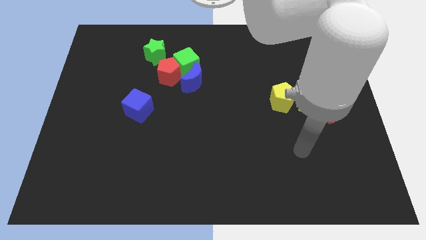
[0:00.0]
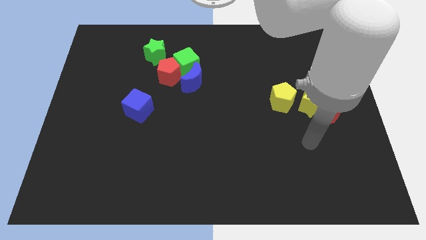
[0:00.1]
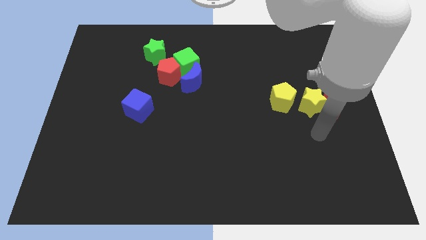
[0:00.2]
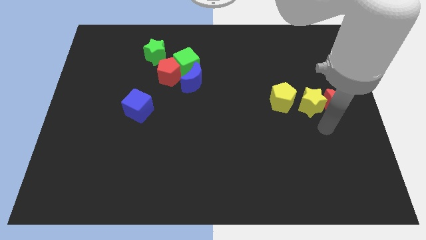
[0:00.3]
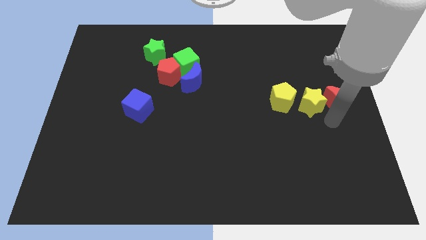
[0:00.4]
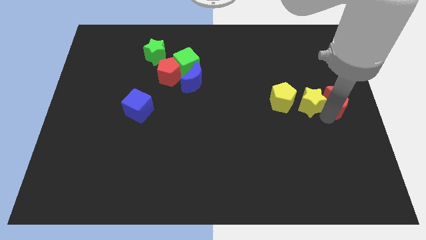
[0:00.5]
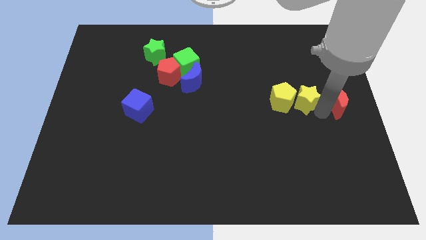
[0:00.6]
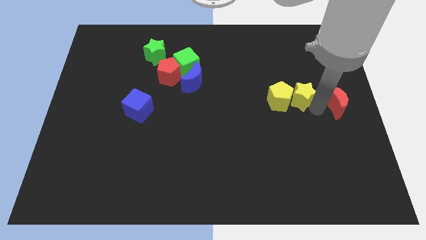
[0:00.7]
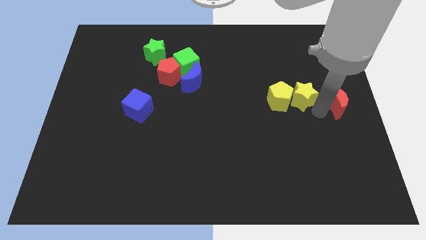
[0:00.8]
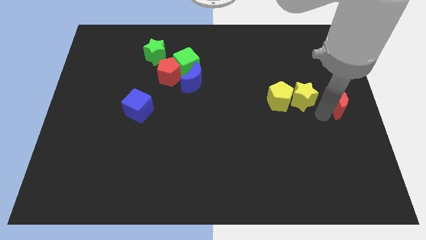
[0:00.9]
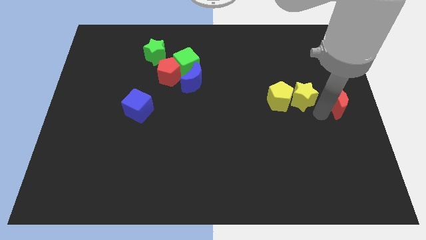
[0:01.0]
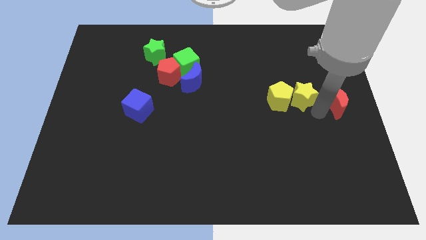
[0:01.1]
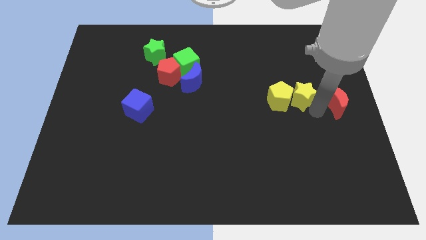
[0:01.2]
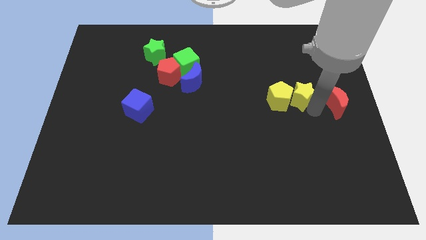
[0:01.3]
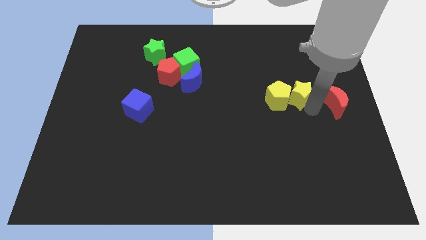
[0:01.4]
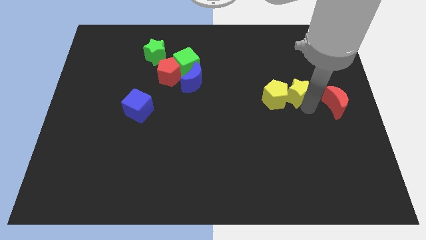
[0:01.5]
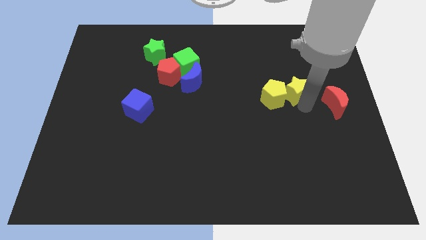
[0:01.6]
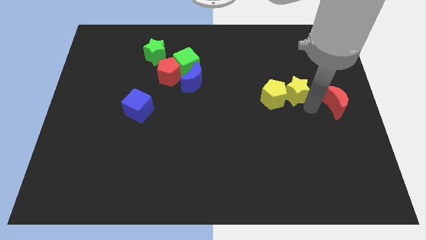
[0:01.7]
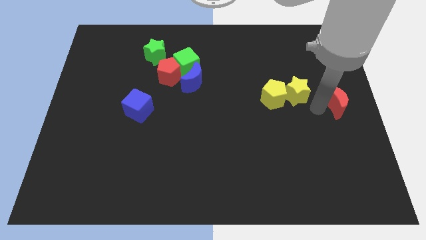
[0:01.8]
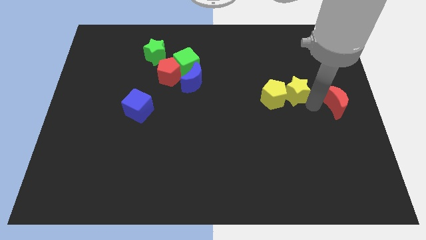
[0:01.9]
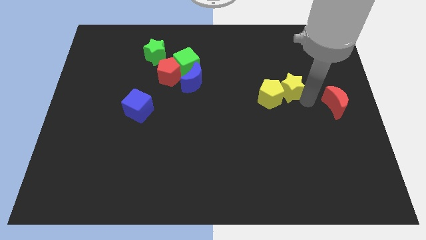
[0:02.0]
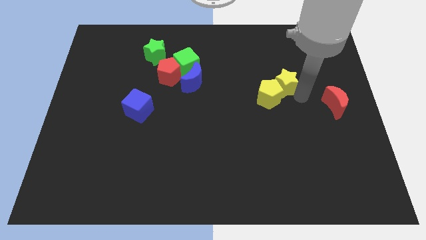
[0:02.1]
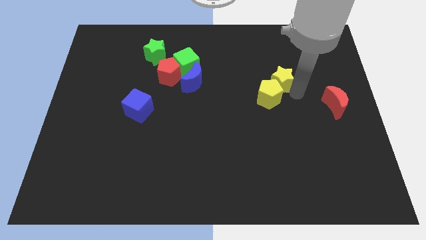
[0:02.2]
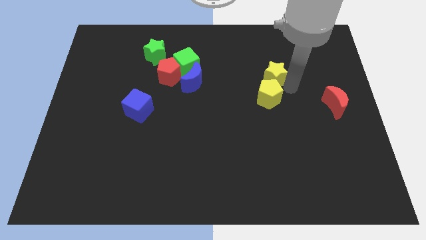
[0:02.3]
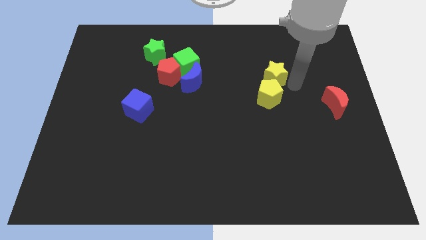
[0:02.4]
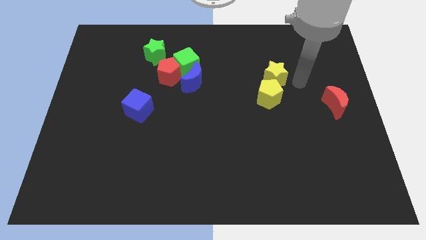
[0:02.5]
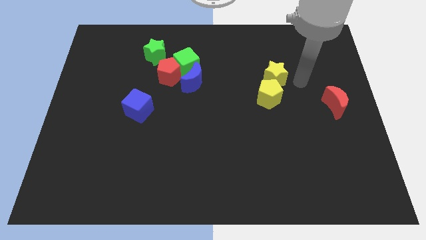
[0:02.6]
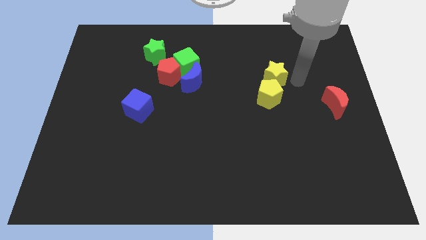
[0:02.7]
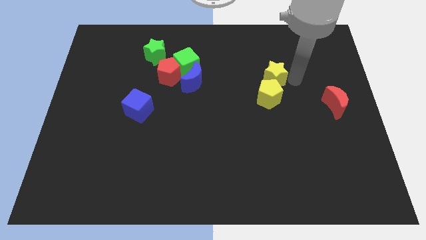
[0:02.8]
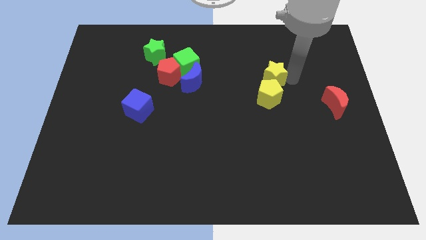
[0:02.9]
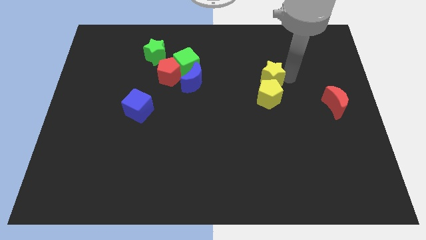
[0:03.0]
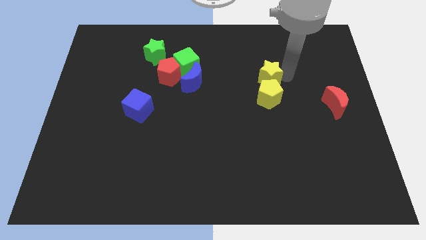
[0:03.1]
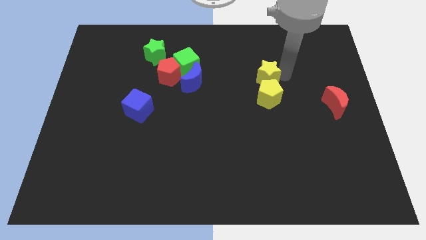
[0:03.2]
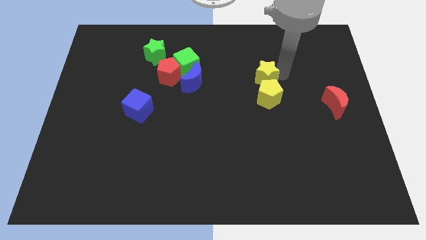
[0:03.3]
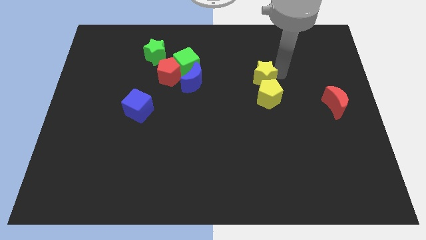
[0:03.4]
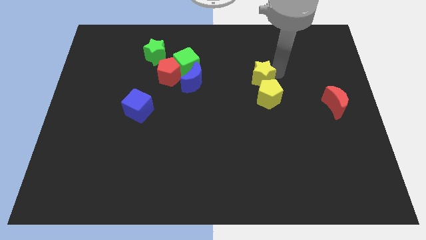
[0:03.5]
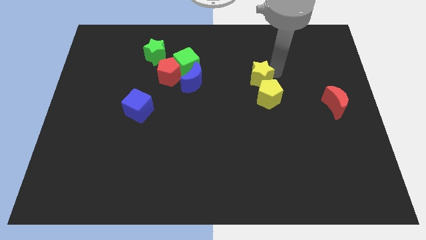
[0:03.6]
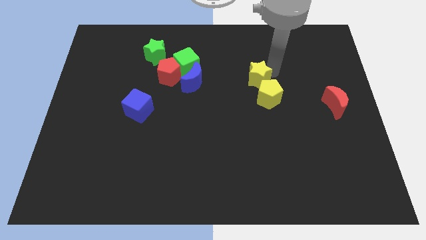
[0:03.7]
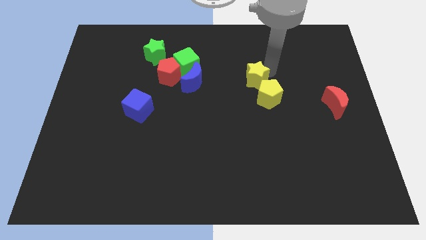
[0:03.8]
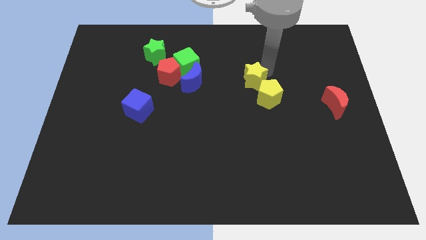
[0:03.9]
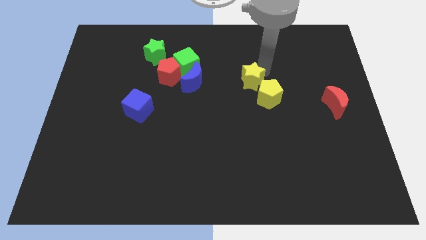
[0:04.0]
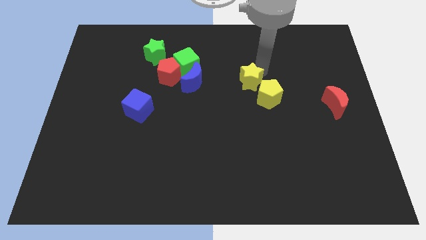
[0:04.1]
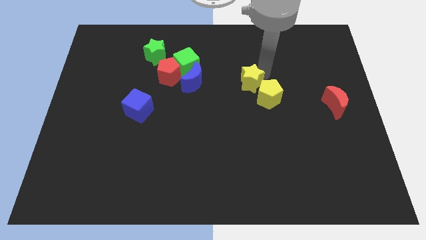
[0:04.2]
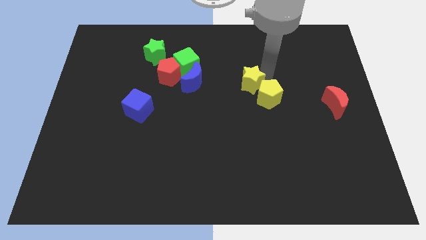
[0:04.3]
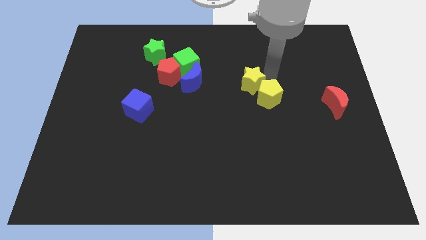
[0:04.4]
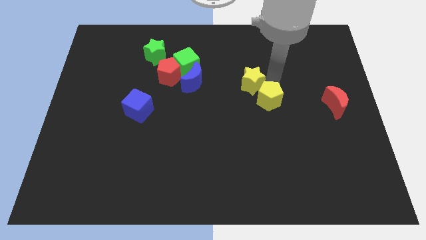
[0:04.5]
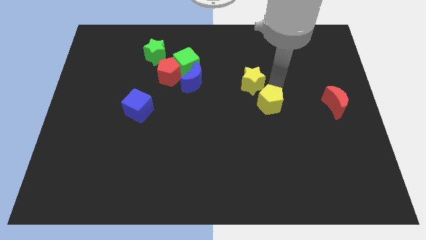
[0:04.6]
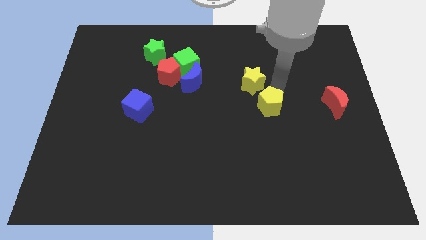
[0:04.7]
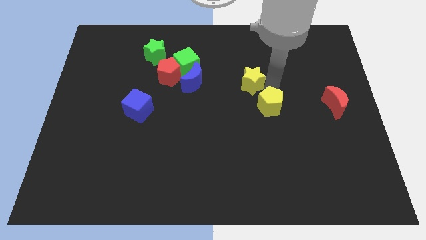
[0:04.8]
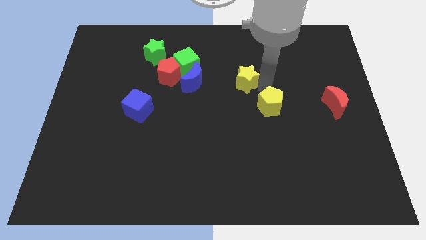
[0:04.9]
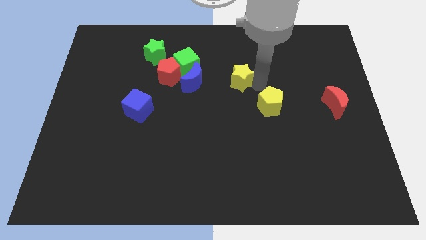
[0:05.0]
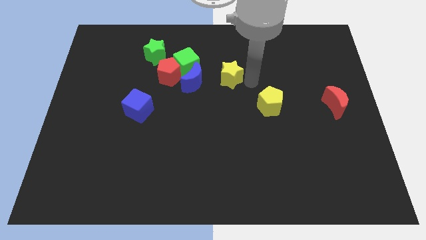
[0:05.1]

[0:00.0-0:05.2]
move the yellow star just right of the red pentagon

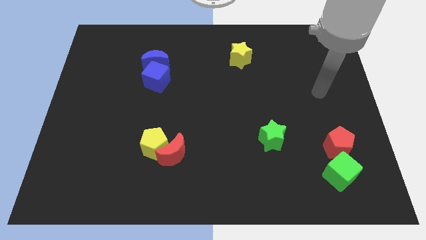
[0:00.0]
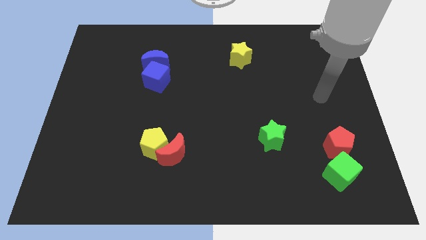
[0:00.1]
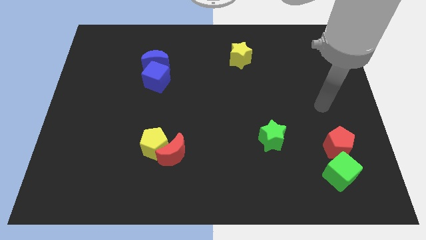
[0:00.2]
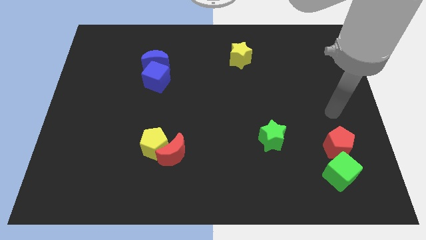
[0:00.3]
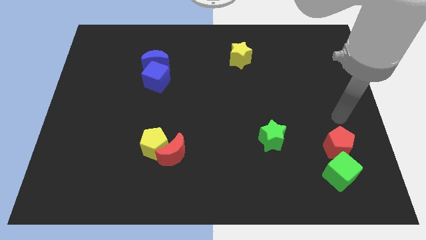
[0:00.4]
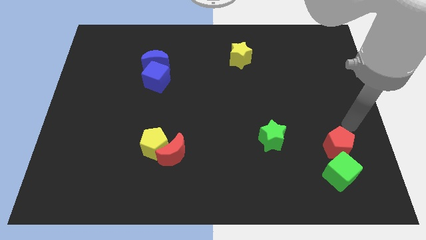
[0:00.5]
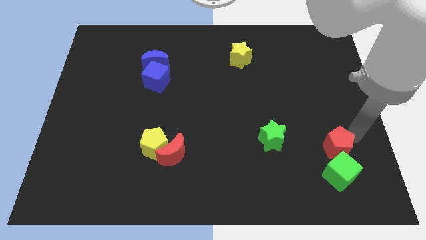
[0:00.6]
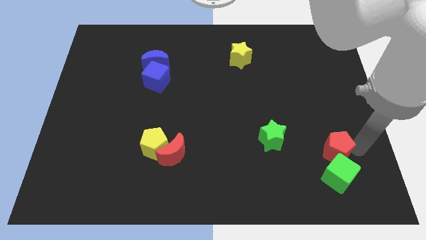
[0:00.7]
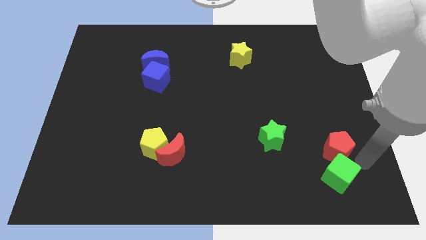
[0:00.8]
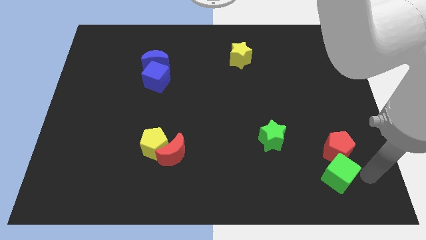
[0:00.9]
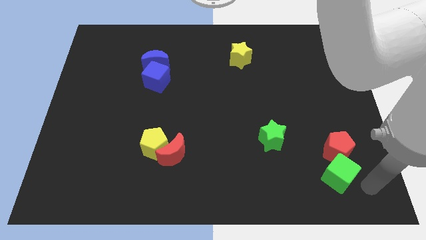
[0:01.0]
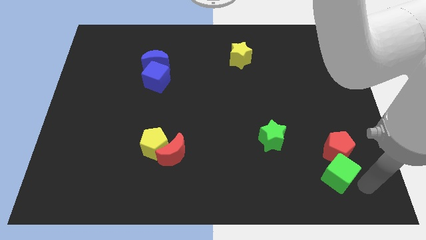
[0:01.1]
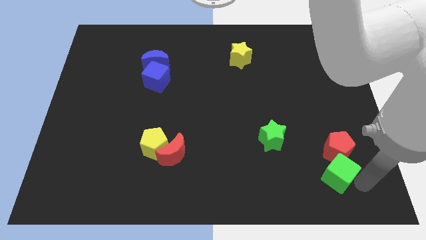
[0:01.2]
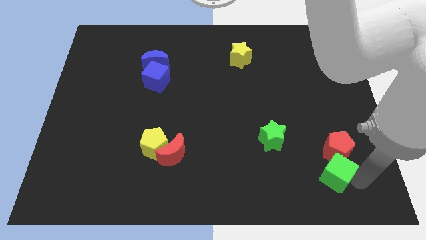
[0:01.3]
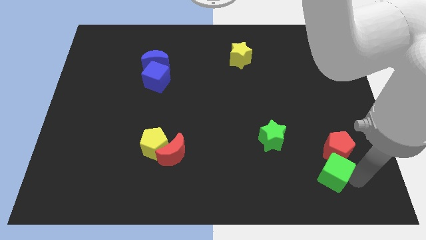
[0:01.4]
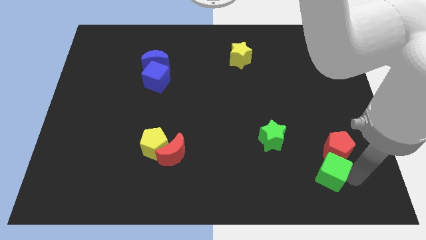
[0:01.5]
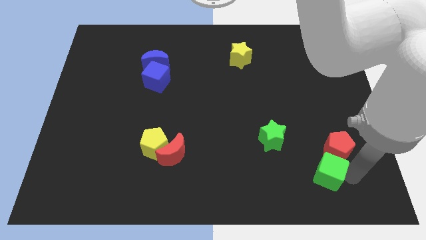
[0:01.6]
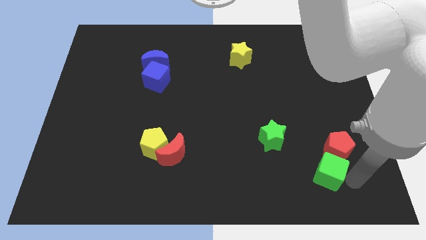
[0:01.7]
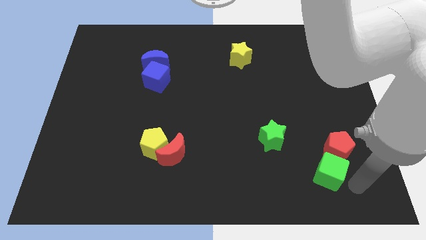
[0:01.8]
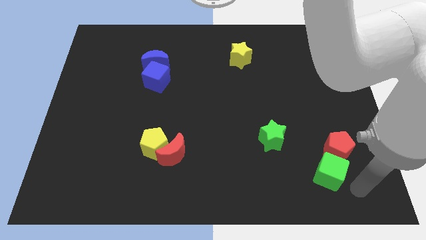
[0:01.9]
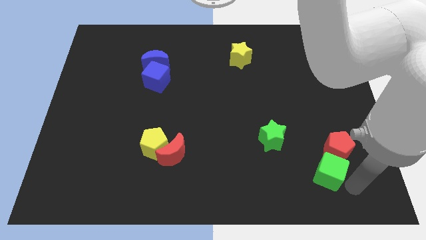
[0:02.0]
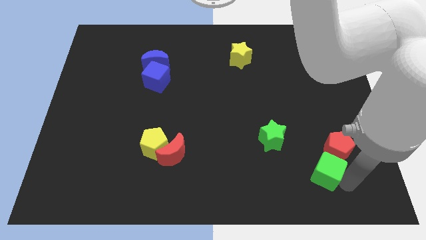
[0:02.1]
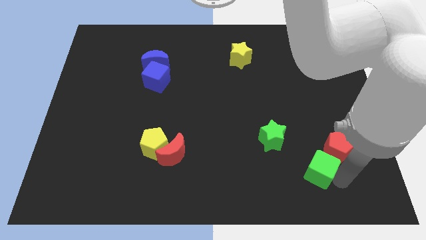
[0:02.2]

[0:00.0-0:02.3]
slide the green cube just left of the red pentagon
